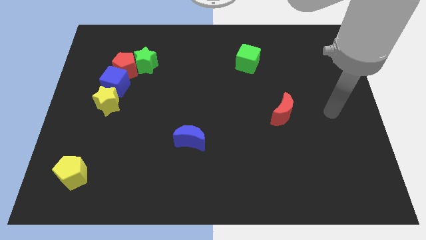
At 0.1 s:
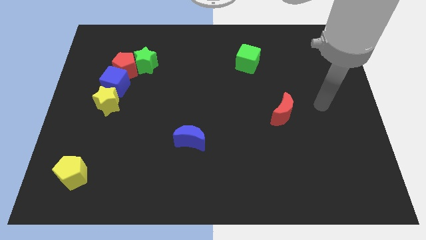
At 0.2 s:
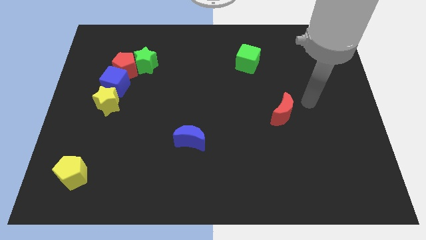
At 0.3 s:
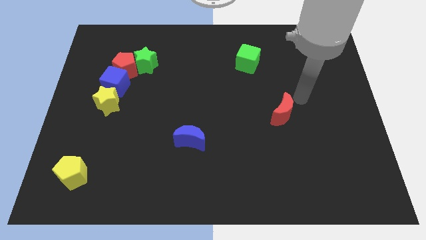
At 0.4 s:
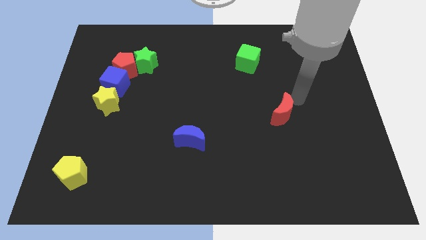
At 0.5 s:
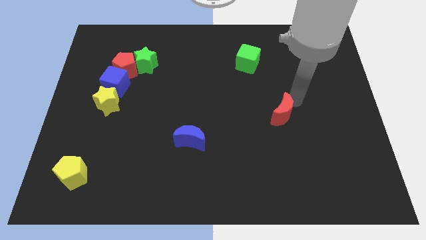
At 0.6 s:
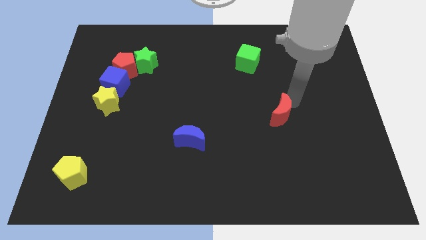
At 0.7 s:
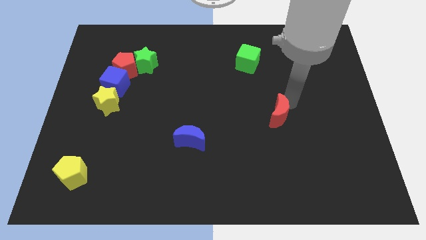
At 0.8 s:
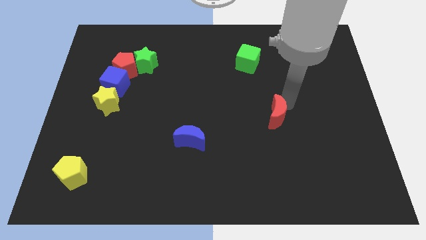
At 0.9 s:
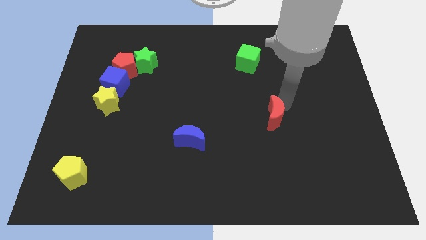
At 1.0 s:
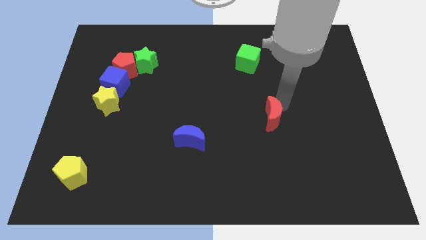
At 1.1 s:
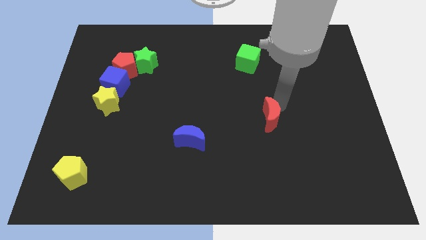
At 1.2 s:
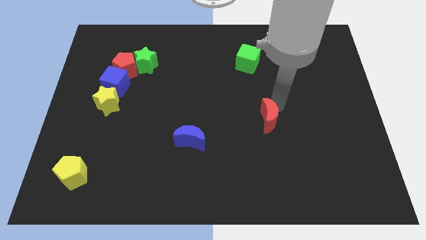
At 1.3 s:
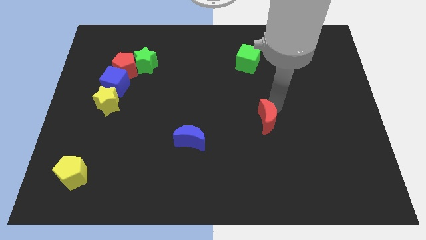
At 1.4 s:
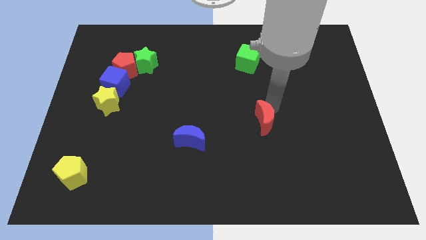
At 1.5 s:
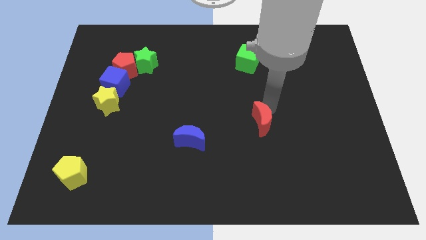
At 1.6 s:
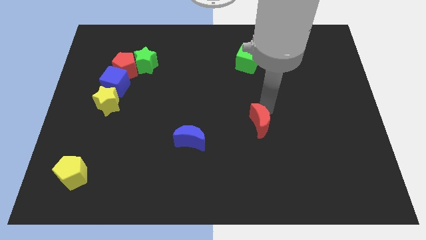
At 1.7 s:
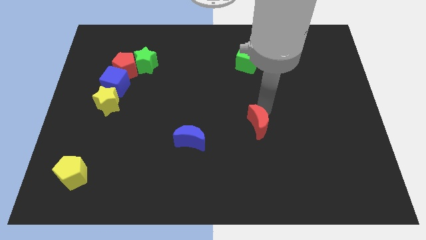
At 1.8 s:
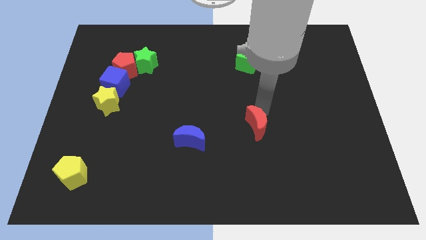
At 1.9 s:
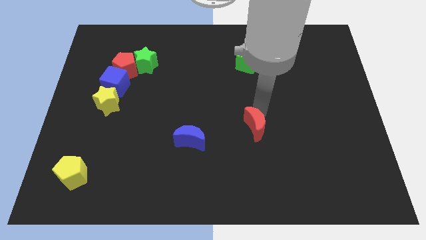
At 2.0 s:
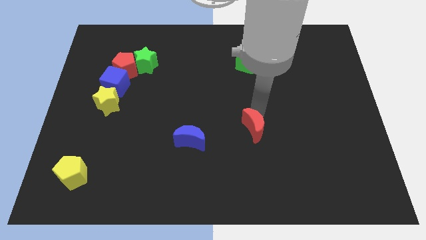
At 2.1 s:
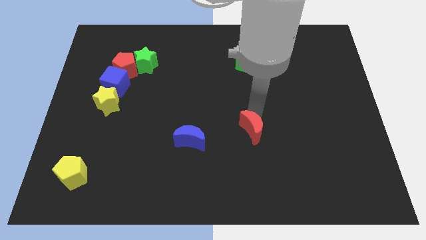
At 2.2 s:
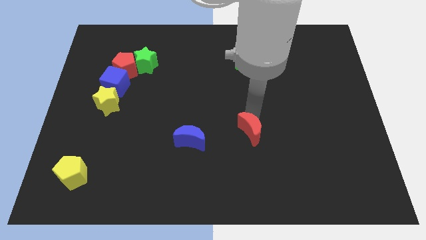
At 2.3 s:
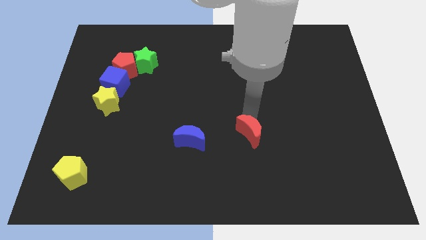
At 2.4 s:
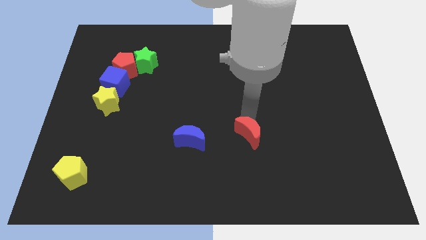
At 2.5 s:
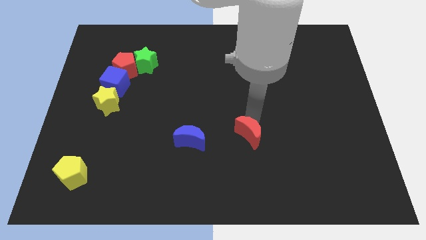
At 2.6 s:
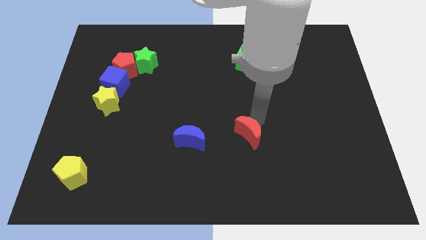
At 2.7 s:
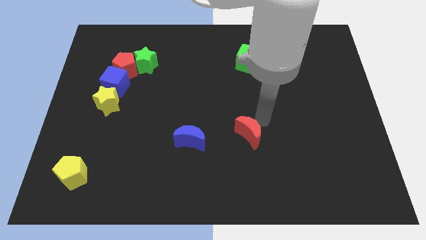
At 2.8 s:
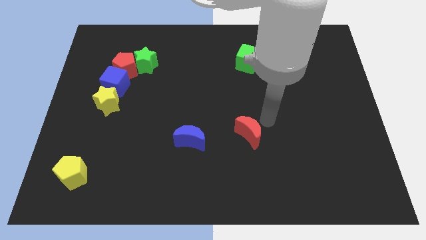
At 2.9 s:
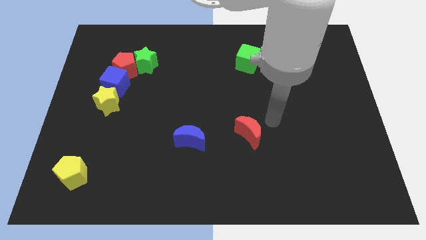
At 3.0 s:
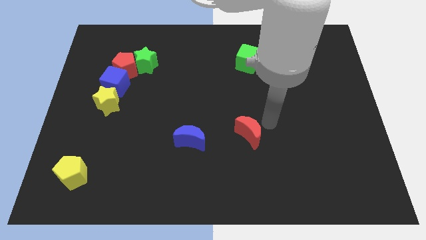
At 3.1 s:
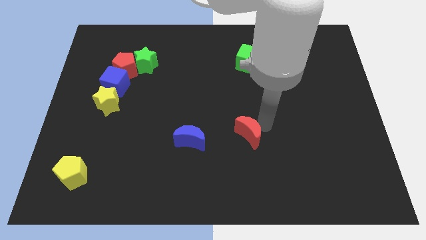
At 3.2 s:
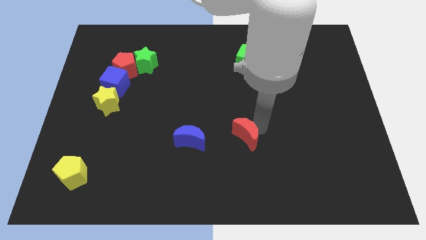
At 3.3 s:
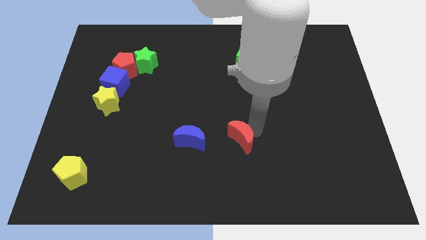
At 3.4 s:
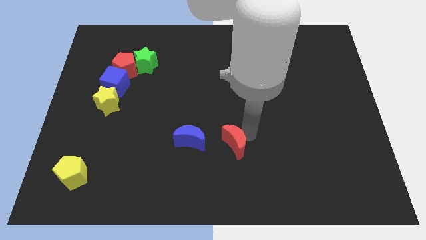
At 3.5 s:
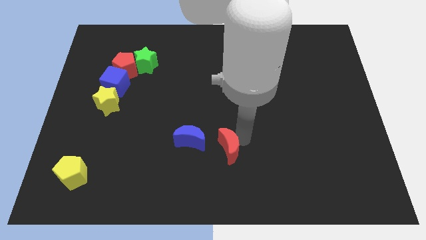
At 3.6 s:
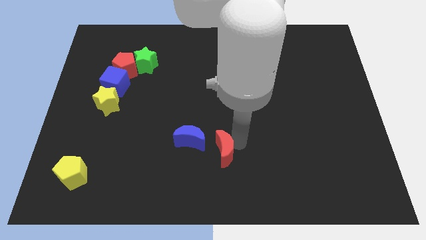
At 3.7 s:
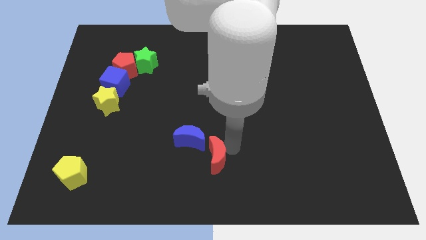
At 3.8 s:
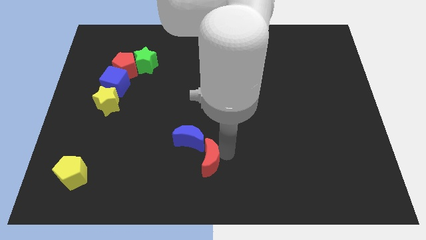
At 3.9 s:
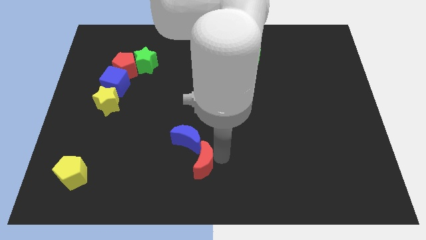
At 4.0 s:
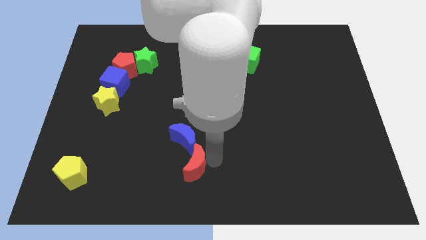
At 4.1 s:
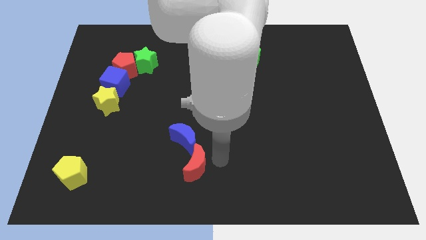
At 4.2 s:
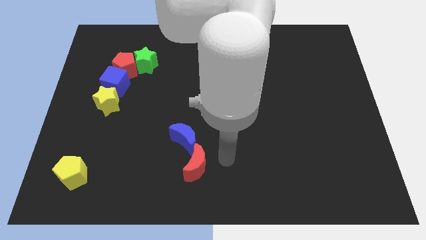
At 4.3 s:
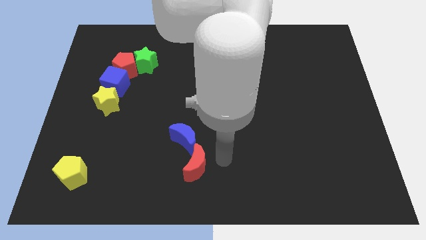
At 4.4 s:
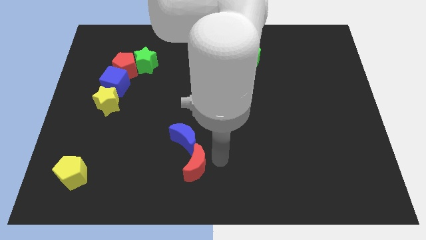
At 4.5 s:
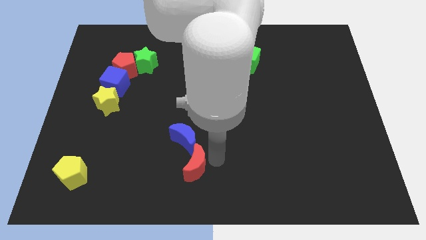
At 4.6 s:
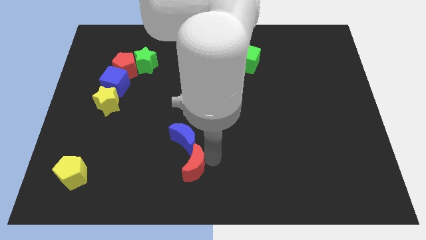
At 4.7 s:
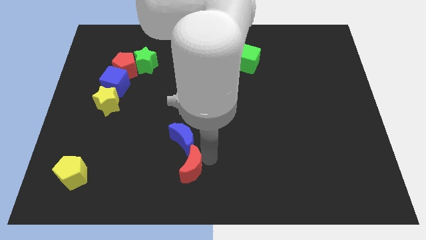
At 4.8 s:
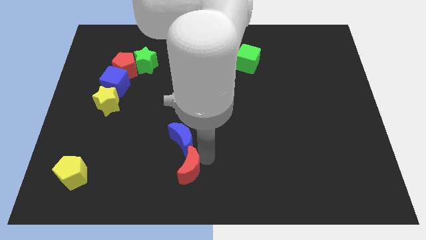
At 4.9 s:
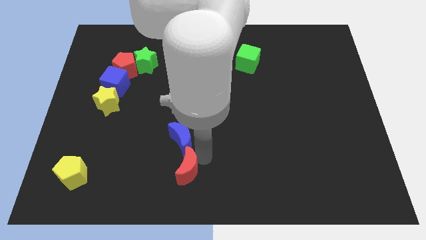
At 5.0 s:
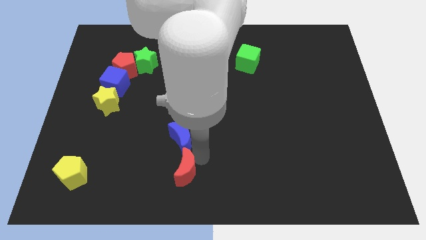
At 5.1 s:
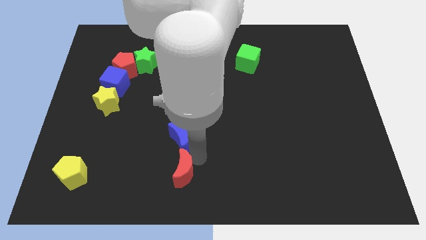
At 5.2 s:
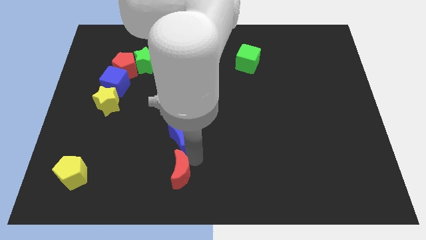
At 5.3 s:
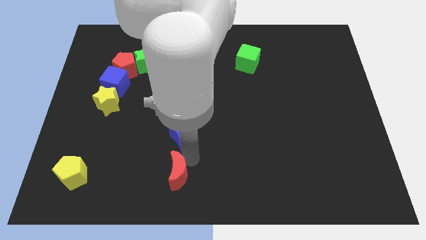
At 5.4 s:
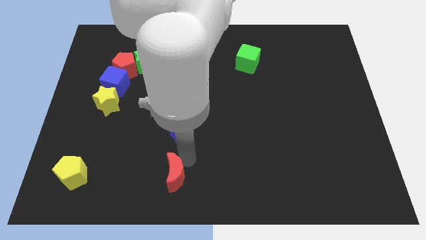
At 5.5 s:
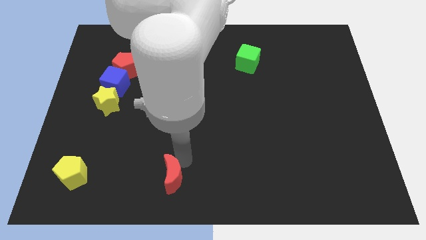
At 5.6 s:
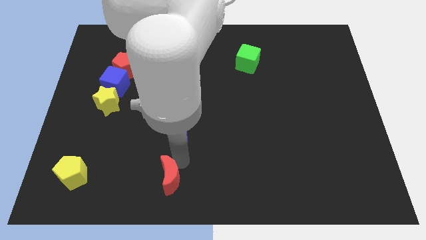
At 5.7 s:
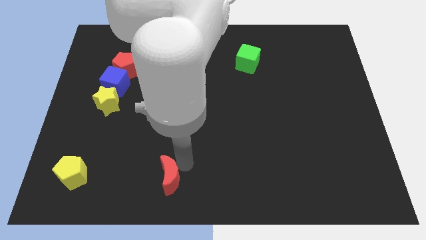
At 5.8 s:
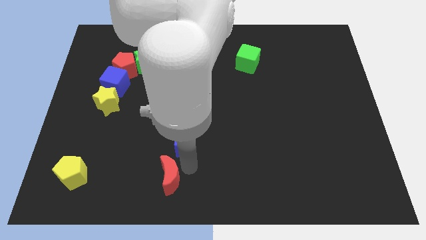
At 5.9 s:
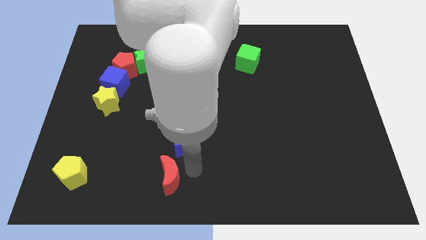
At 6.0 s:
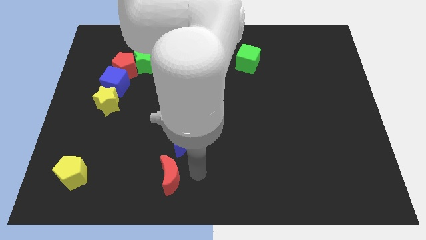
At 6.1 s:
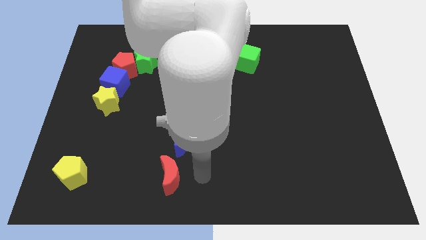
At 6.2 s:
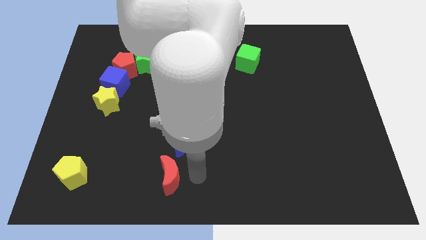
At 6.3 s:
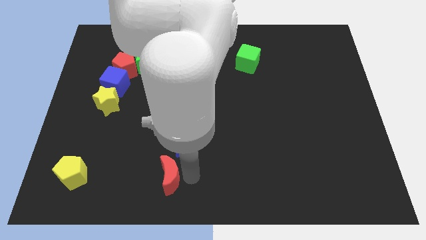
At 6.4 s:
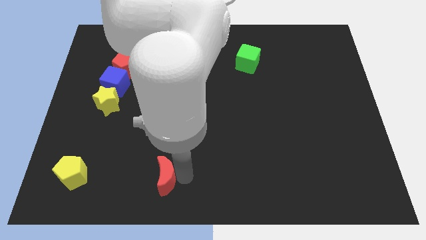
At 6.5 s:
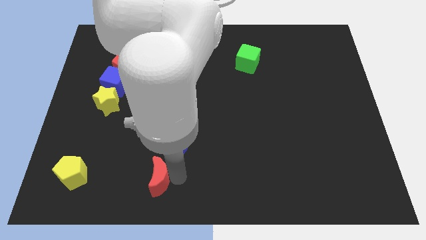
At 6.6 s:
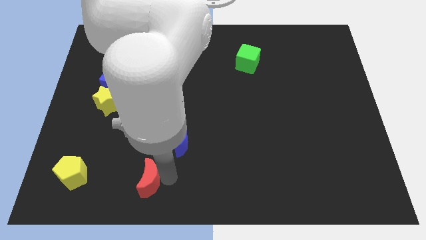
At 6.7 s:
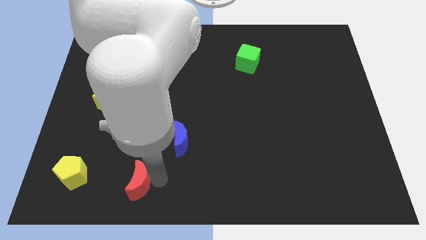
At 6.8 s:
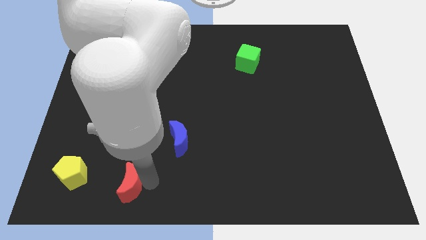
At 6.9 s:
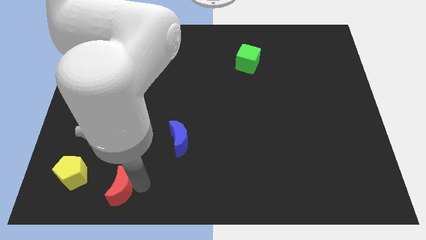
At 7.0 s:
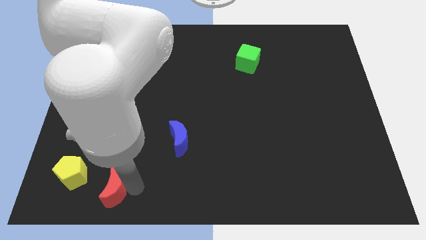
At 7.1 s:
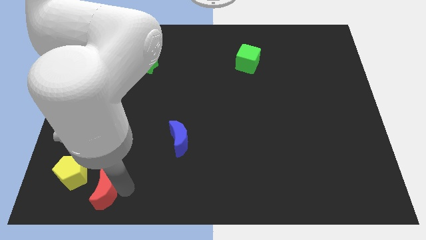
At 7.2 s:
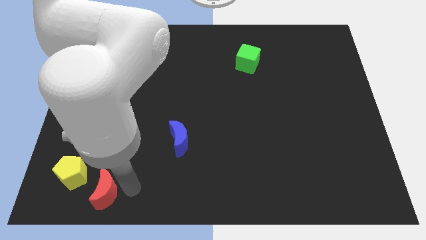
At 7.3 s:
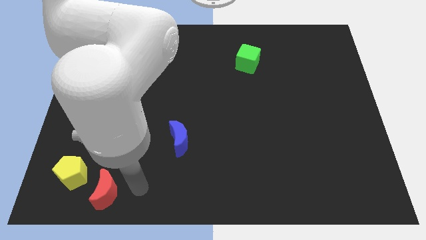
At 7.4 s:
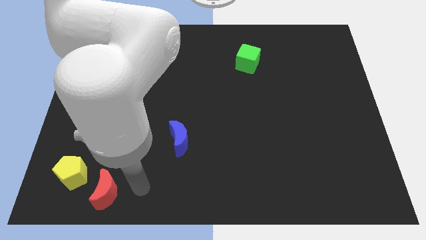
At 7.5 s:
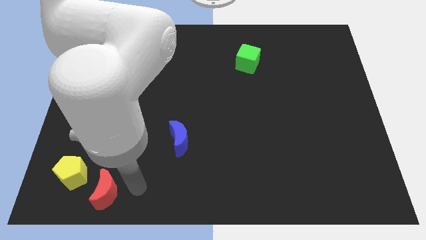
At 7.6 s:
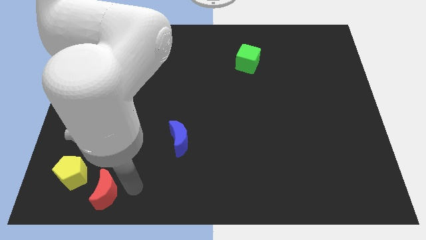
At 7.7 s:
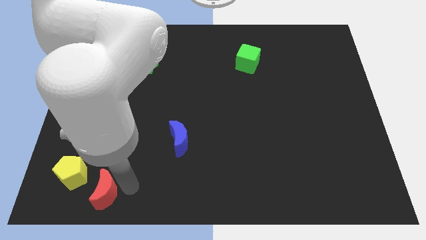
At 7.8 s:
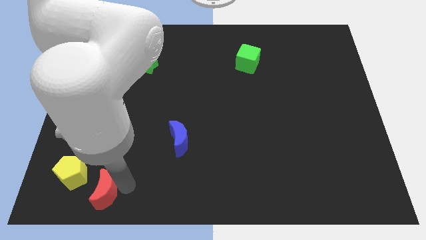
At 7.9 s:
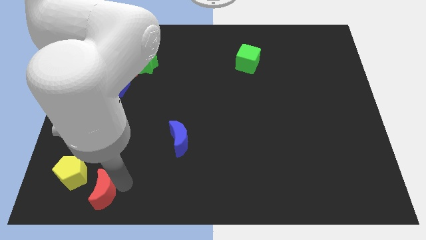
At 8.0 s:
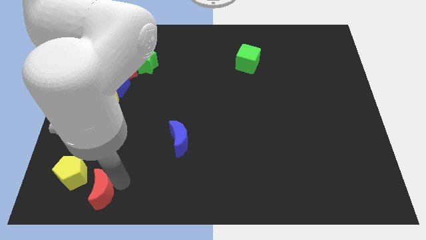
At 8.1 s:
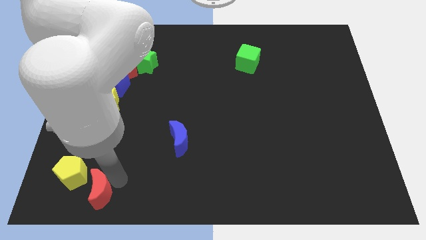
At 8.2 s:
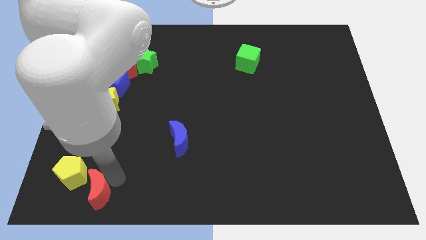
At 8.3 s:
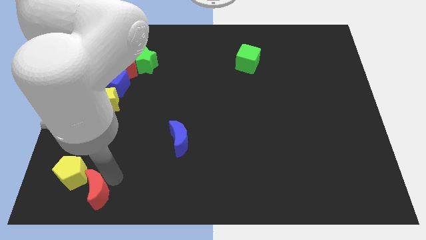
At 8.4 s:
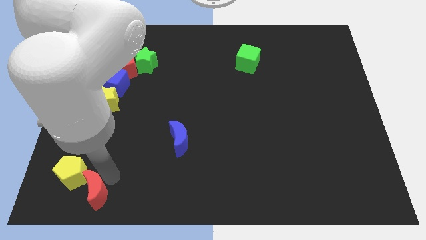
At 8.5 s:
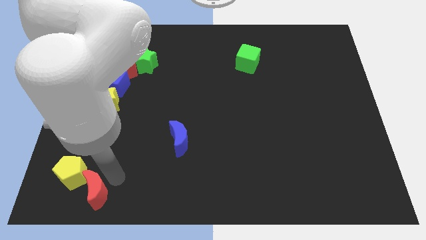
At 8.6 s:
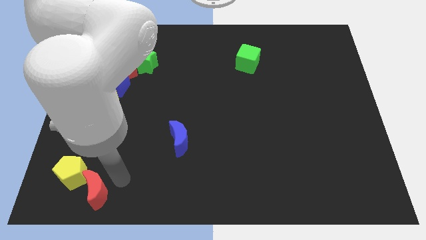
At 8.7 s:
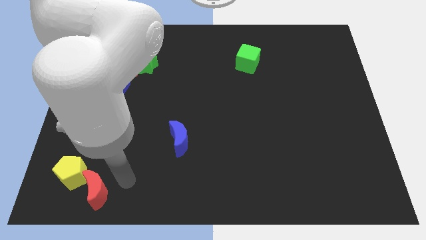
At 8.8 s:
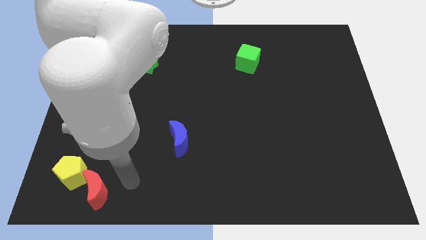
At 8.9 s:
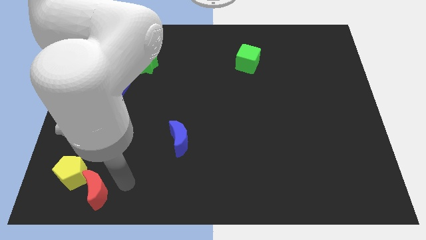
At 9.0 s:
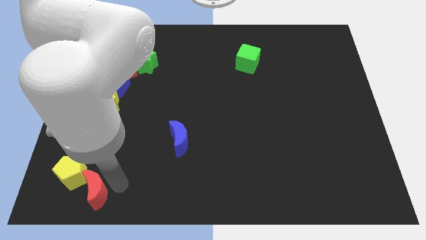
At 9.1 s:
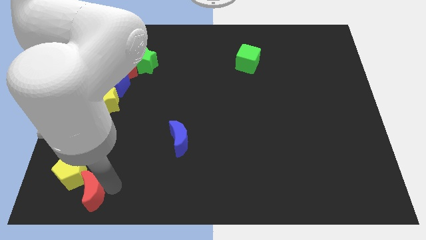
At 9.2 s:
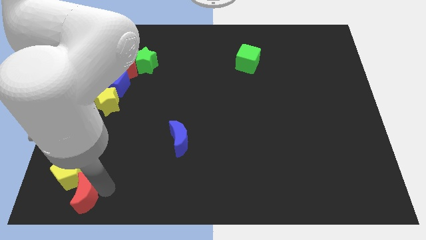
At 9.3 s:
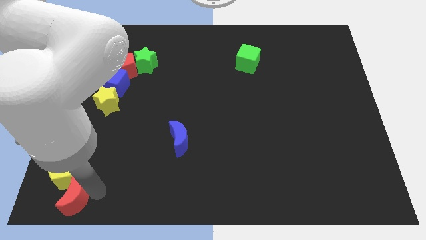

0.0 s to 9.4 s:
move the red moon to the lower left corner
